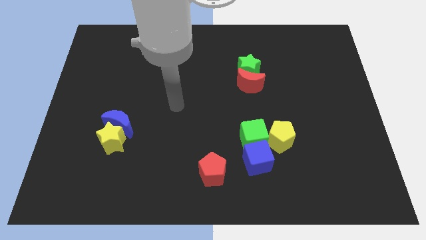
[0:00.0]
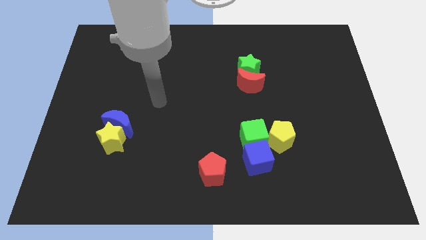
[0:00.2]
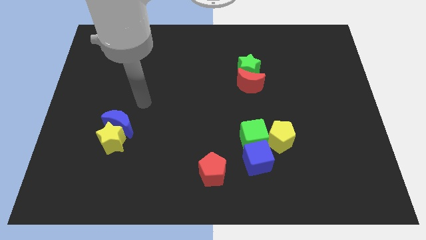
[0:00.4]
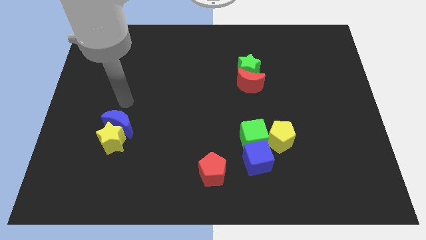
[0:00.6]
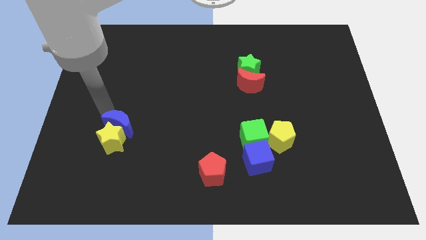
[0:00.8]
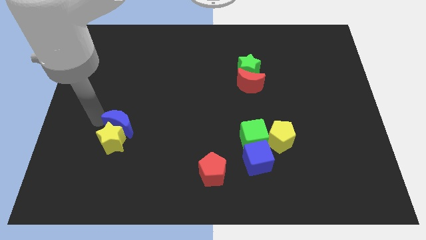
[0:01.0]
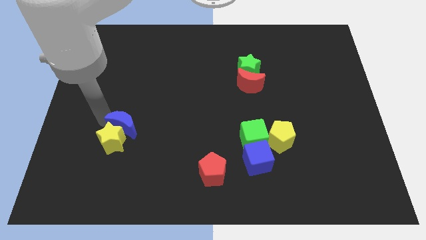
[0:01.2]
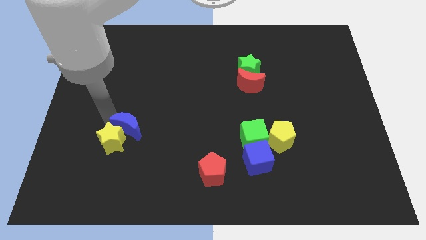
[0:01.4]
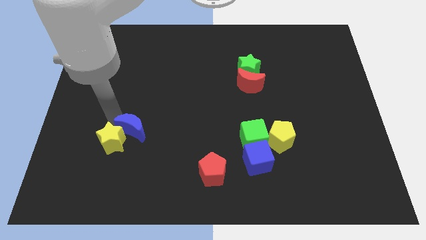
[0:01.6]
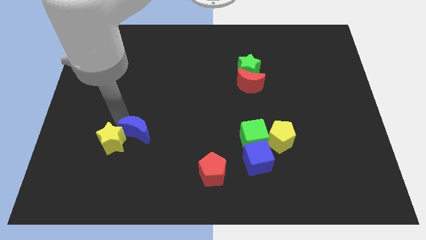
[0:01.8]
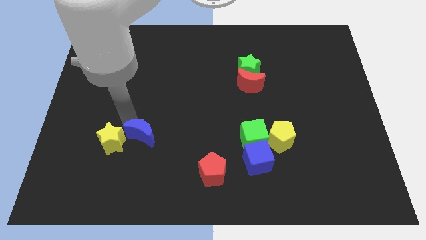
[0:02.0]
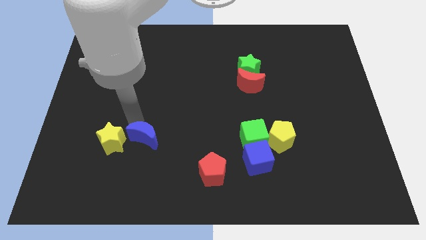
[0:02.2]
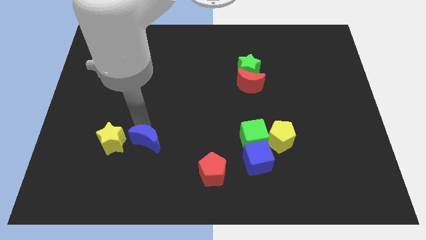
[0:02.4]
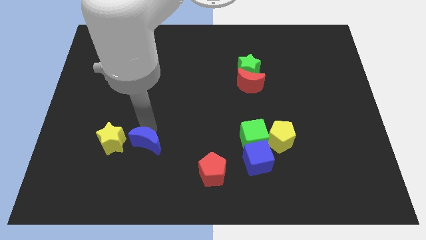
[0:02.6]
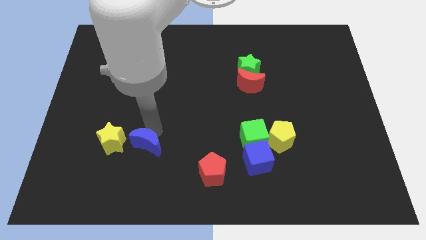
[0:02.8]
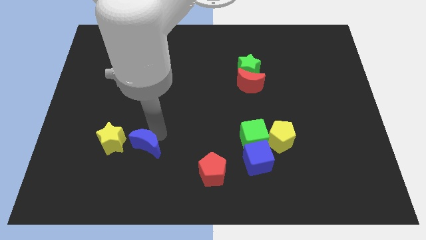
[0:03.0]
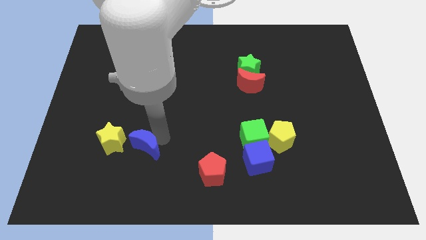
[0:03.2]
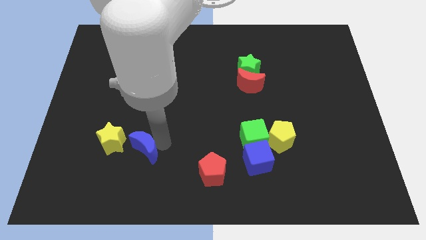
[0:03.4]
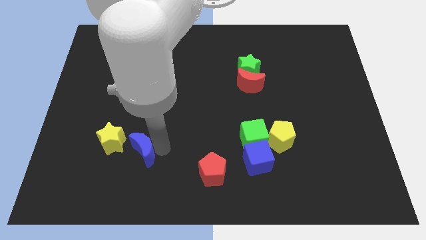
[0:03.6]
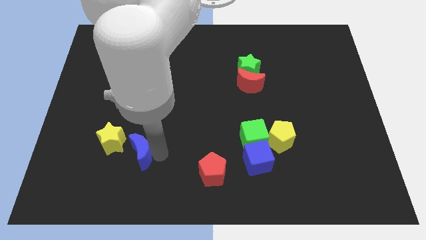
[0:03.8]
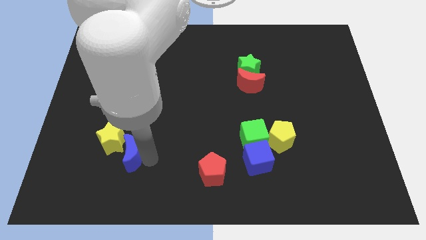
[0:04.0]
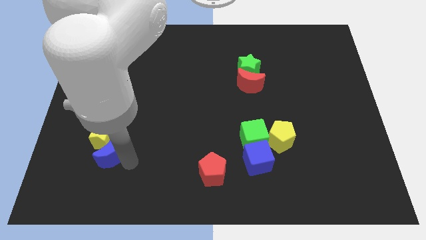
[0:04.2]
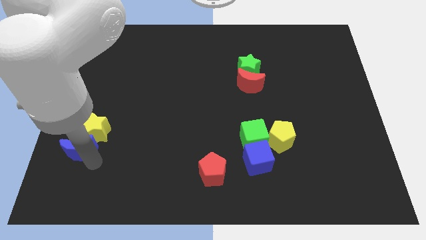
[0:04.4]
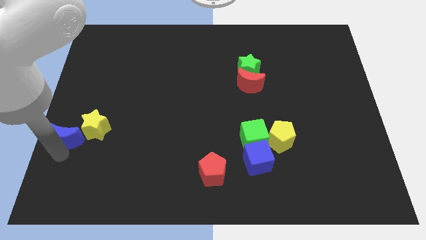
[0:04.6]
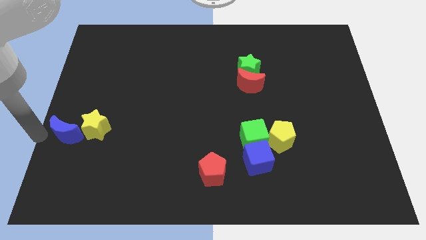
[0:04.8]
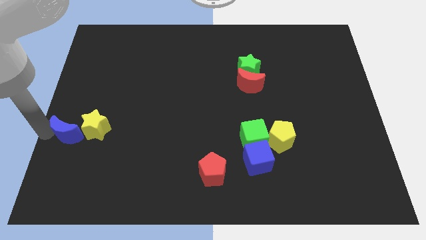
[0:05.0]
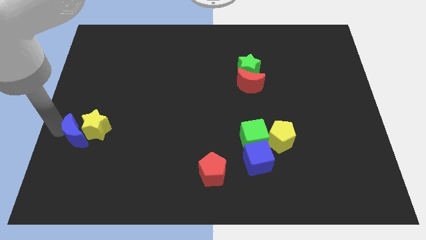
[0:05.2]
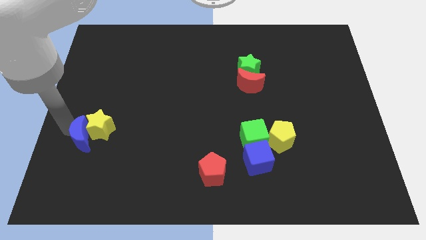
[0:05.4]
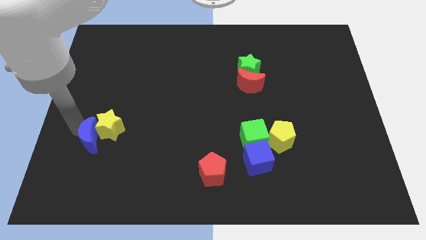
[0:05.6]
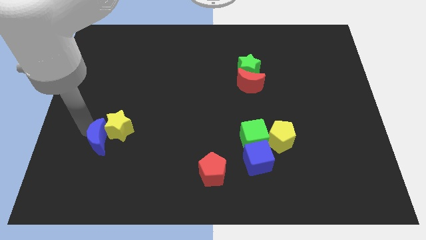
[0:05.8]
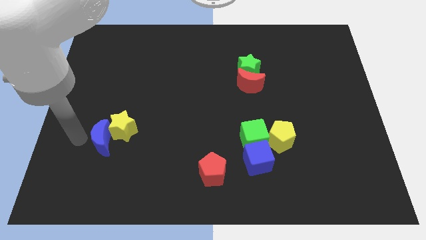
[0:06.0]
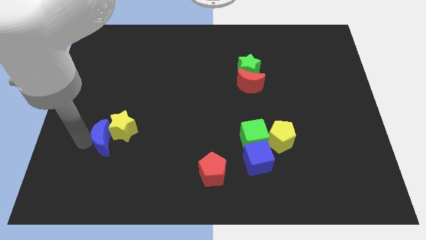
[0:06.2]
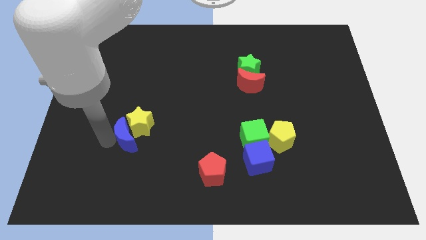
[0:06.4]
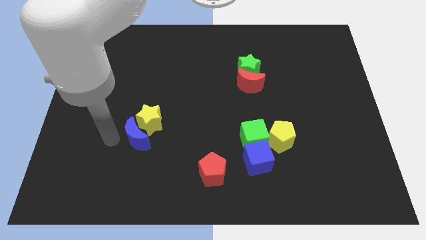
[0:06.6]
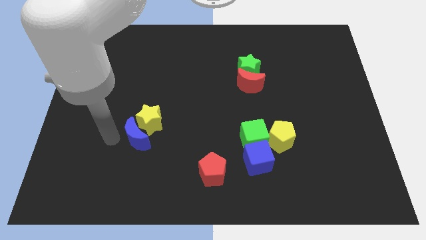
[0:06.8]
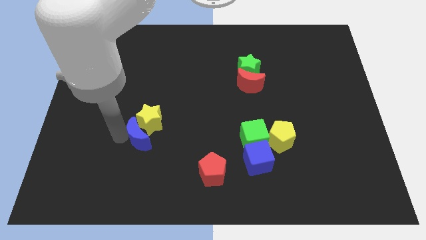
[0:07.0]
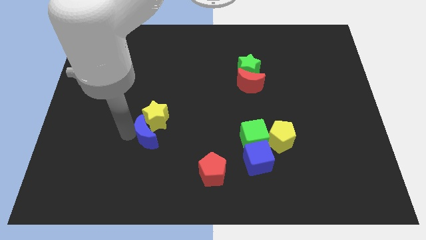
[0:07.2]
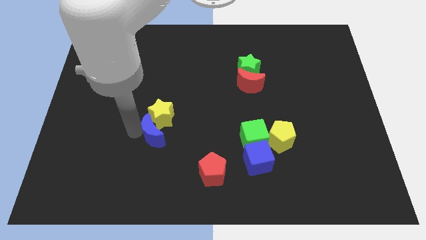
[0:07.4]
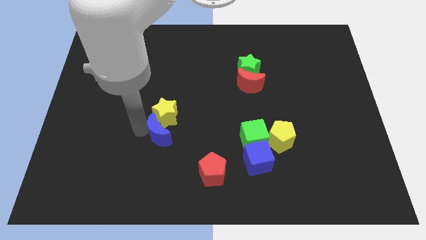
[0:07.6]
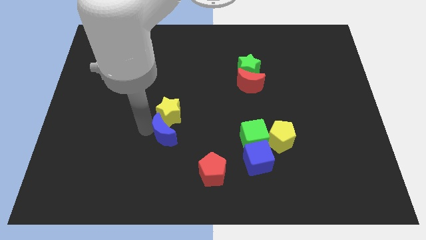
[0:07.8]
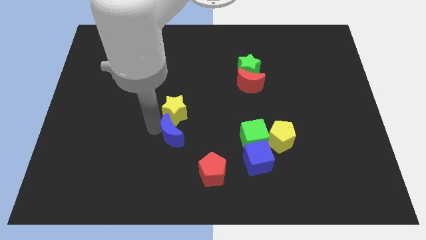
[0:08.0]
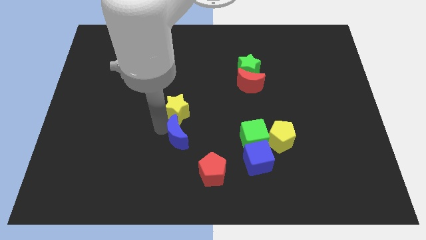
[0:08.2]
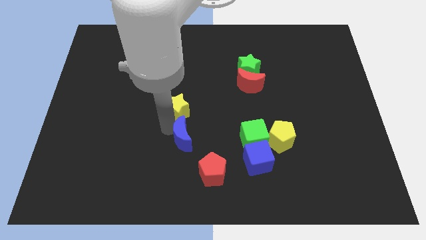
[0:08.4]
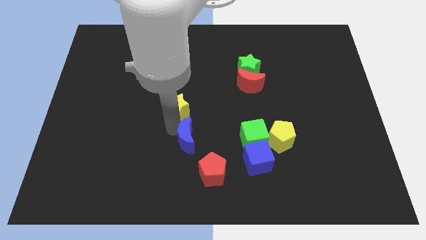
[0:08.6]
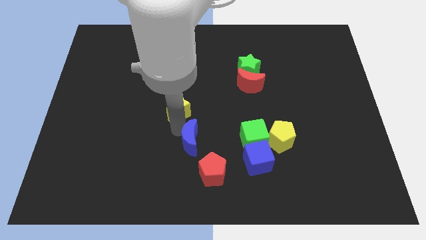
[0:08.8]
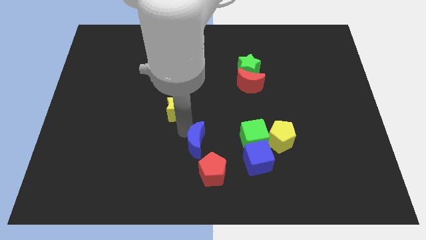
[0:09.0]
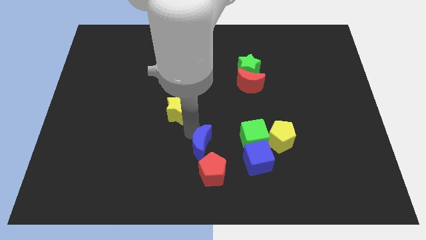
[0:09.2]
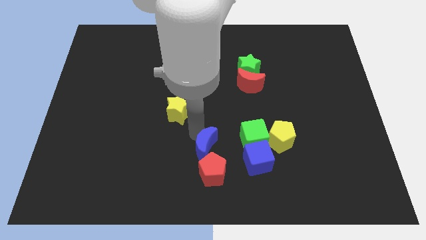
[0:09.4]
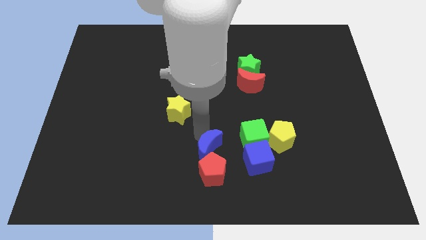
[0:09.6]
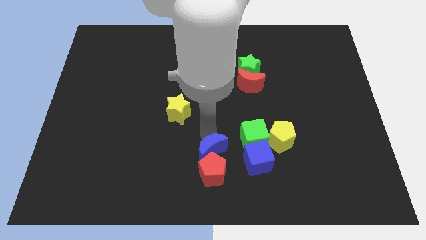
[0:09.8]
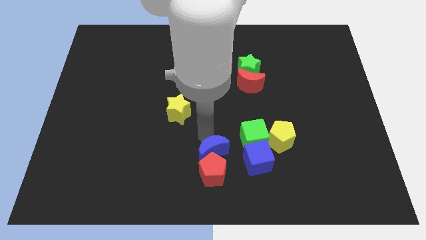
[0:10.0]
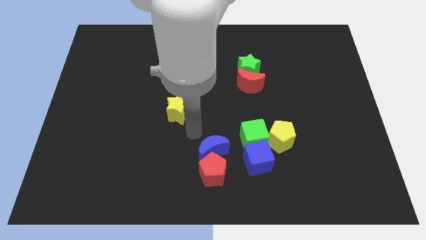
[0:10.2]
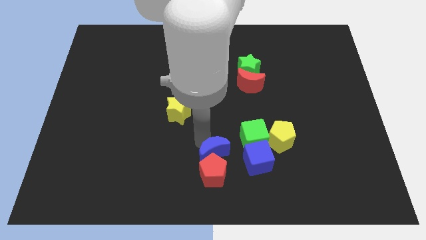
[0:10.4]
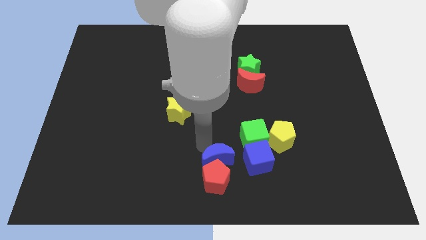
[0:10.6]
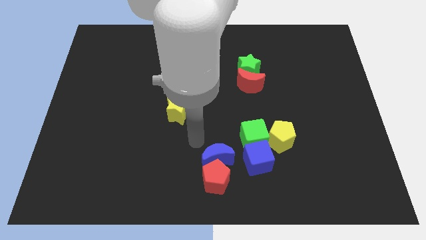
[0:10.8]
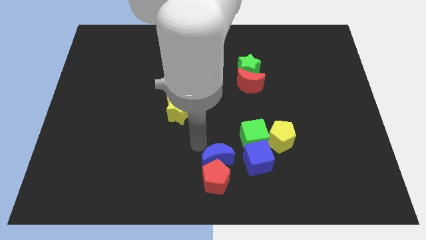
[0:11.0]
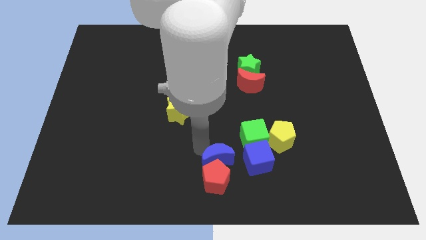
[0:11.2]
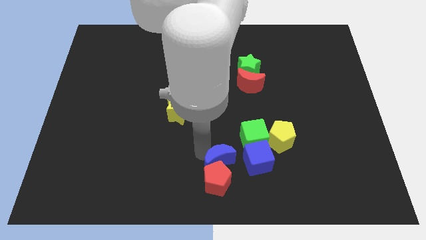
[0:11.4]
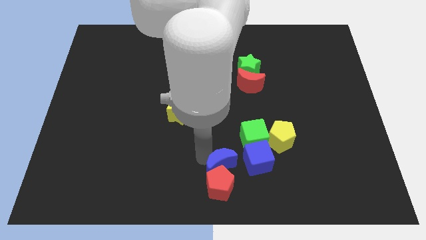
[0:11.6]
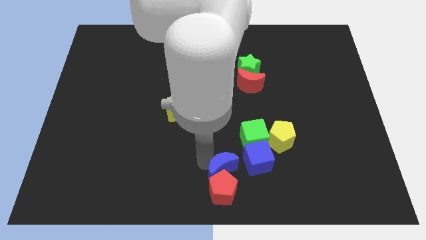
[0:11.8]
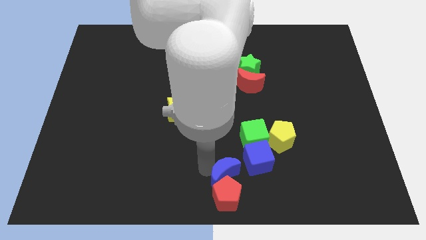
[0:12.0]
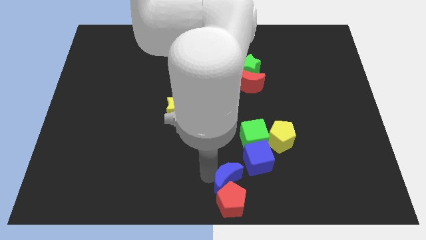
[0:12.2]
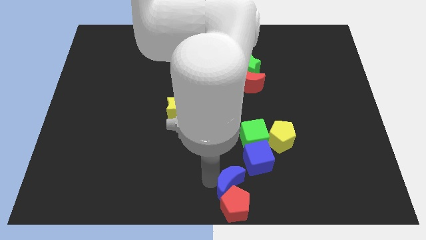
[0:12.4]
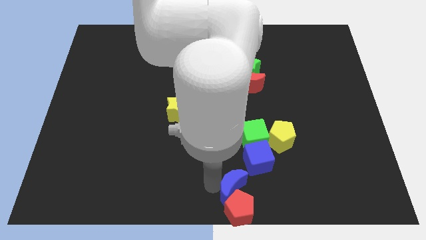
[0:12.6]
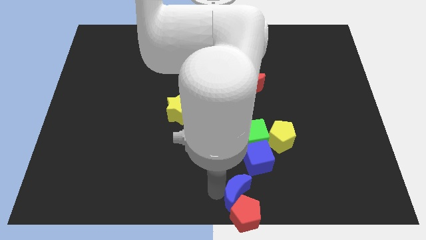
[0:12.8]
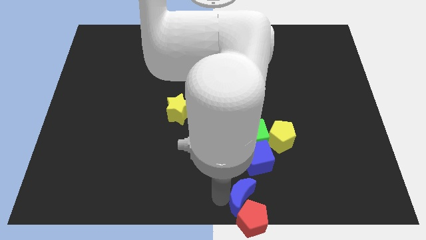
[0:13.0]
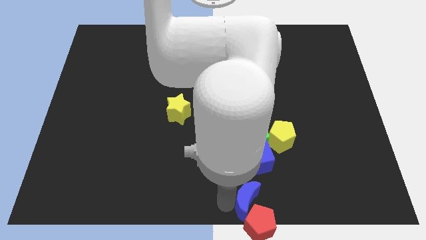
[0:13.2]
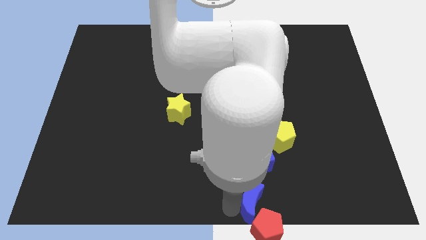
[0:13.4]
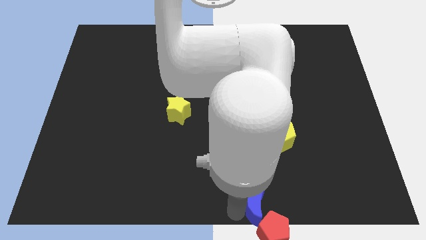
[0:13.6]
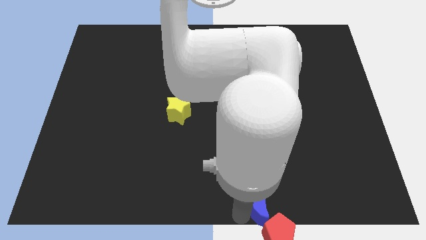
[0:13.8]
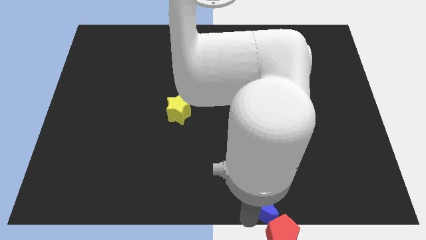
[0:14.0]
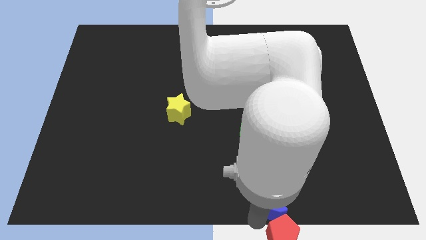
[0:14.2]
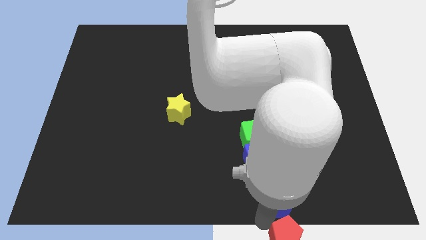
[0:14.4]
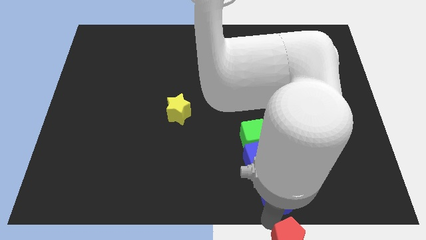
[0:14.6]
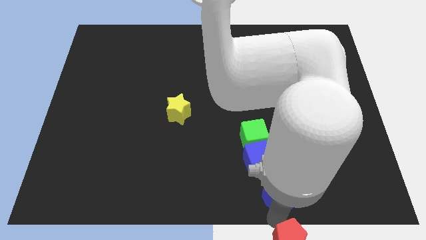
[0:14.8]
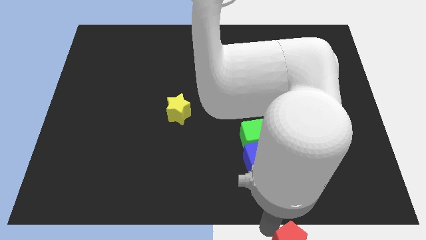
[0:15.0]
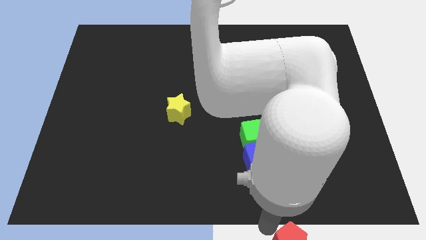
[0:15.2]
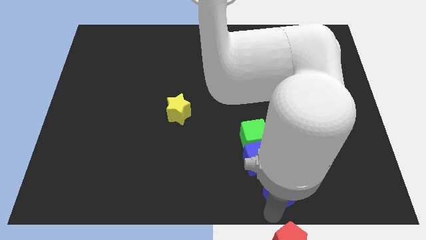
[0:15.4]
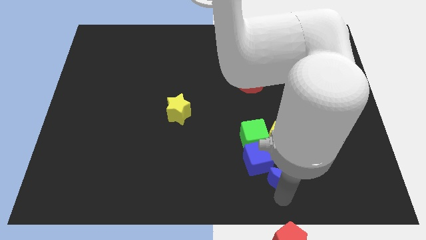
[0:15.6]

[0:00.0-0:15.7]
put the blue moon to the bottom right of the green cube

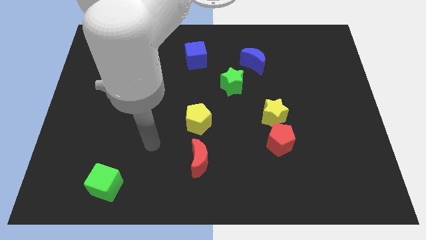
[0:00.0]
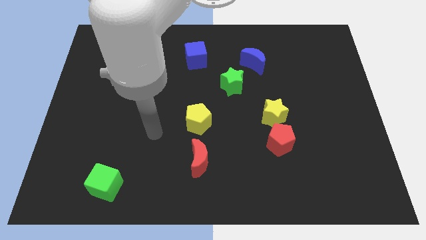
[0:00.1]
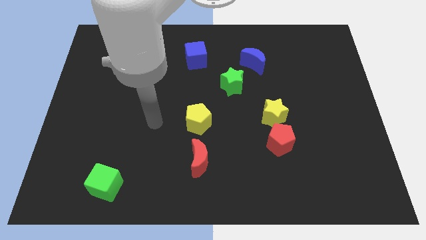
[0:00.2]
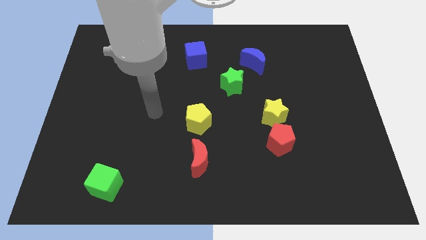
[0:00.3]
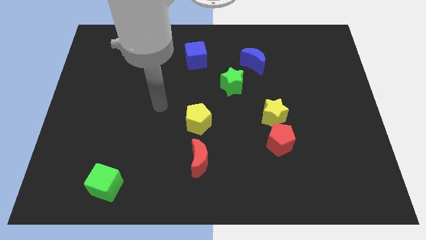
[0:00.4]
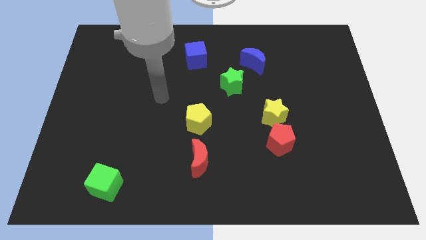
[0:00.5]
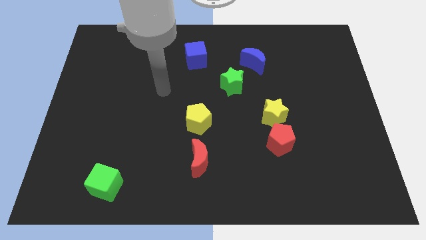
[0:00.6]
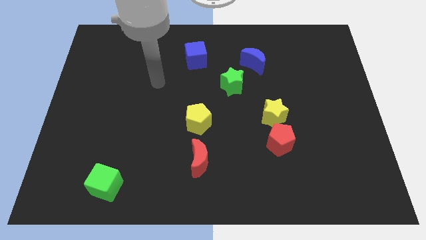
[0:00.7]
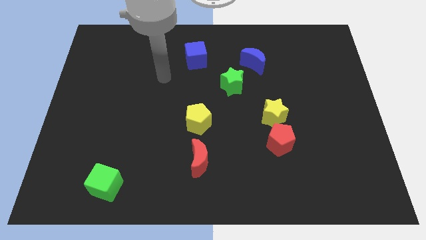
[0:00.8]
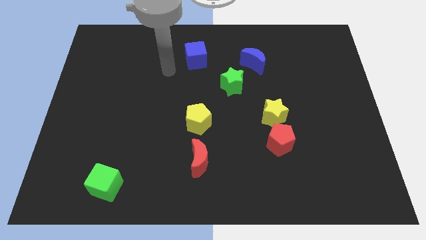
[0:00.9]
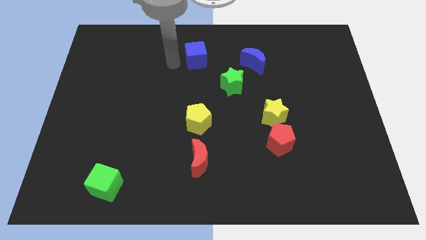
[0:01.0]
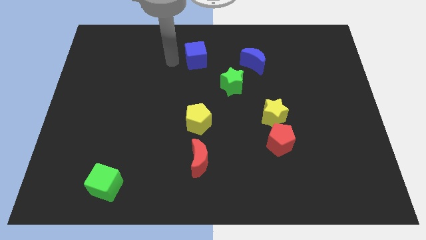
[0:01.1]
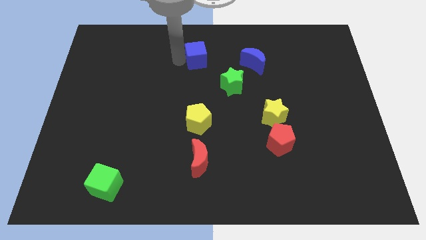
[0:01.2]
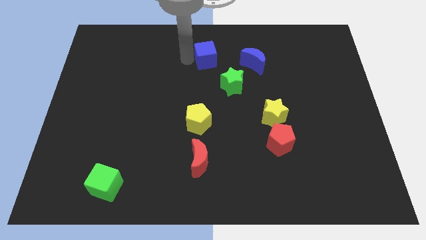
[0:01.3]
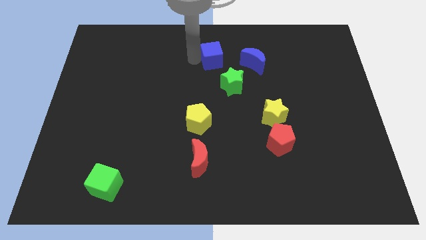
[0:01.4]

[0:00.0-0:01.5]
slide the blue cube to the top side of the green star
